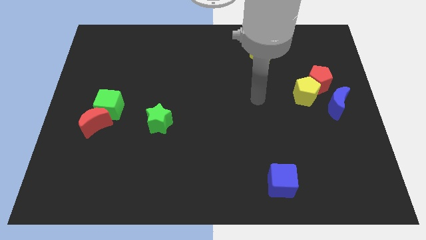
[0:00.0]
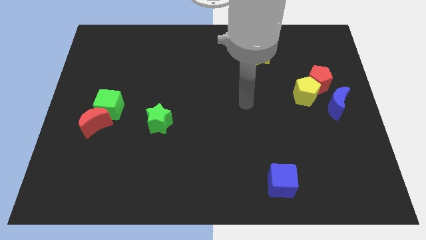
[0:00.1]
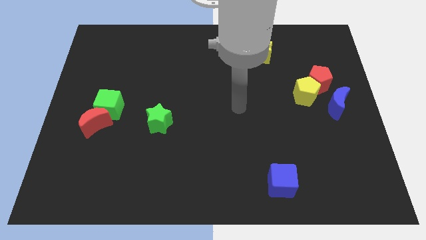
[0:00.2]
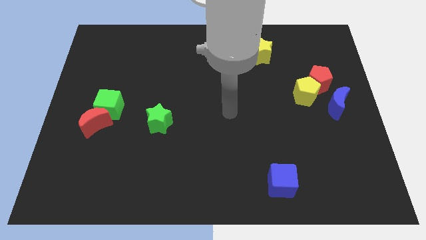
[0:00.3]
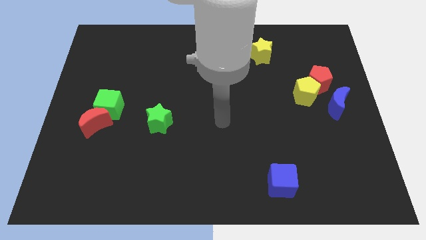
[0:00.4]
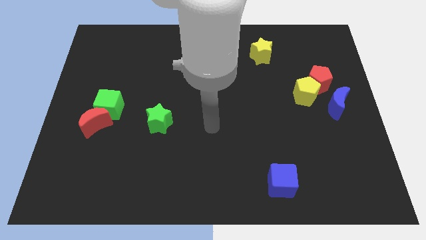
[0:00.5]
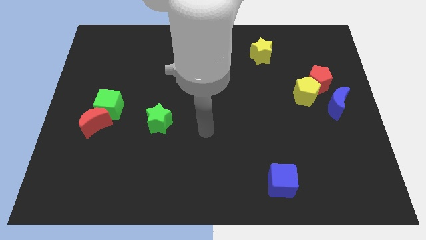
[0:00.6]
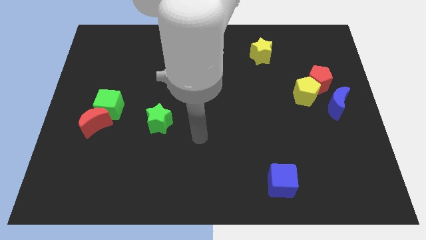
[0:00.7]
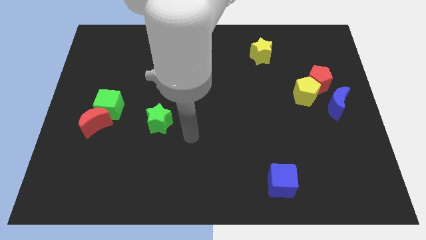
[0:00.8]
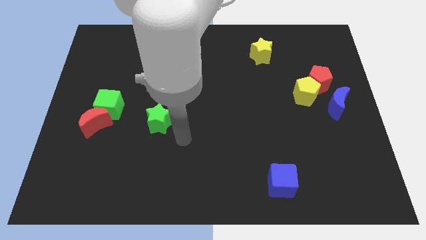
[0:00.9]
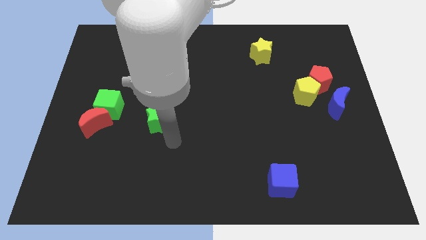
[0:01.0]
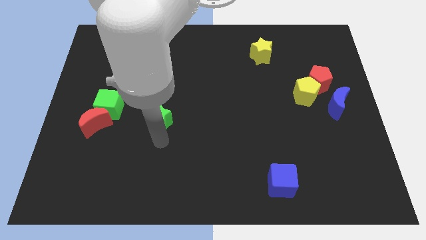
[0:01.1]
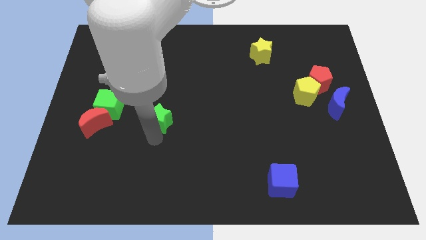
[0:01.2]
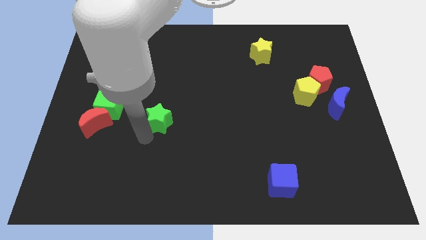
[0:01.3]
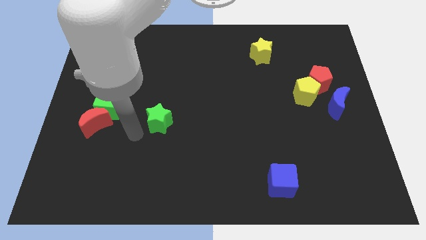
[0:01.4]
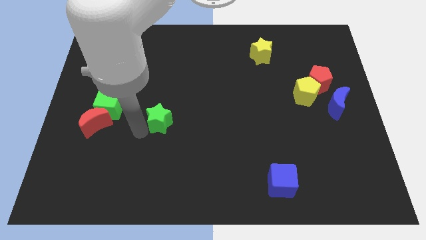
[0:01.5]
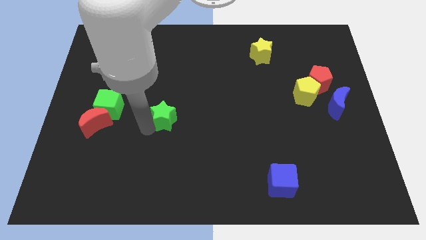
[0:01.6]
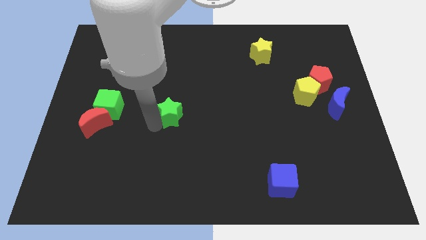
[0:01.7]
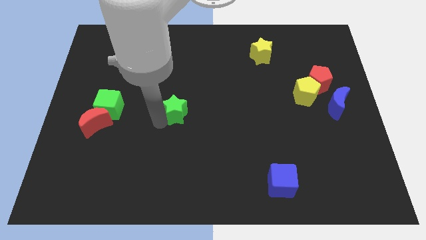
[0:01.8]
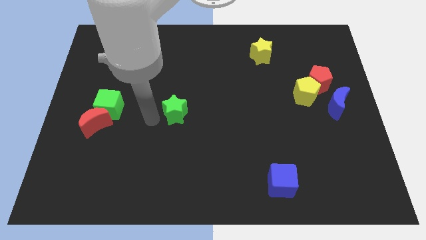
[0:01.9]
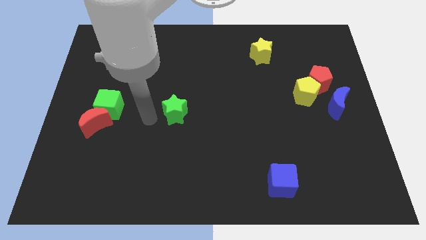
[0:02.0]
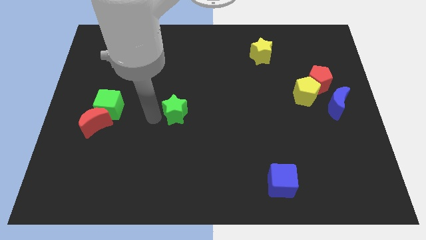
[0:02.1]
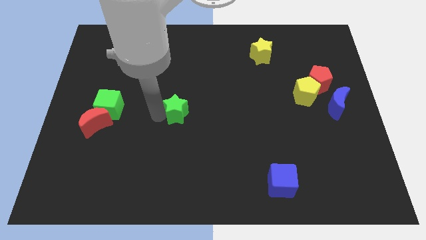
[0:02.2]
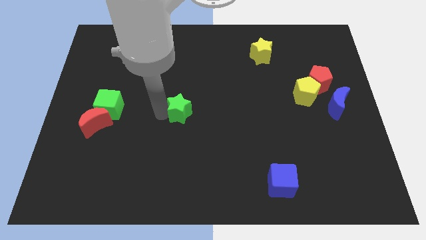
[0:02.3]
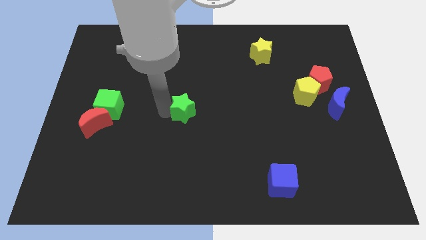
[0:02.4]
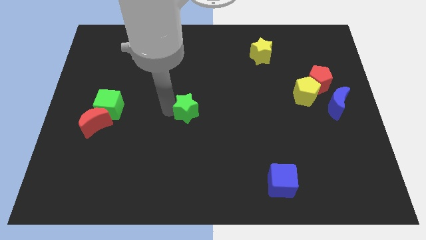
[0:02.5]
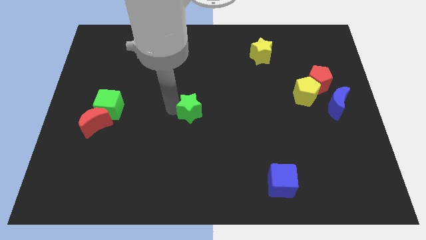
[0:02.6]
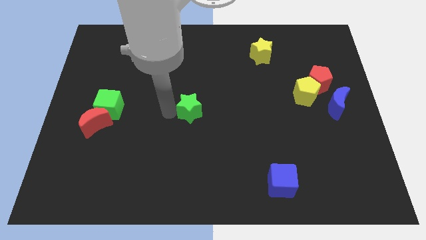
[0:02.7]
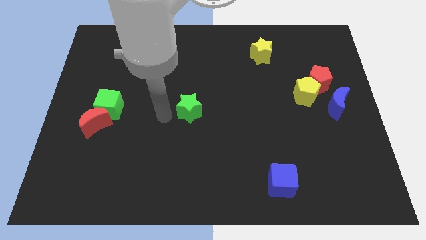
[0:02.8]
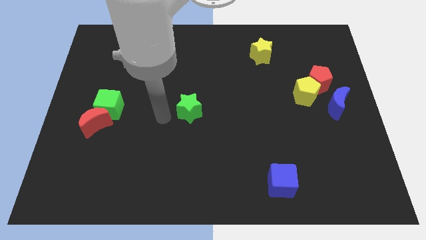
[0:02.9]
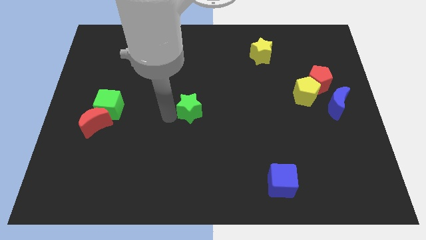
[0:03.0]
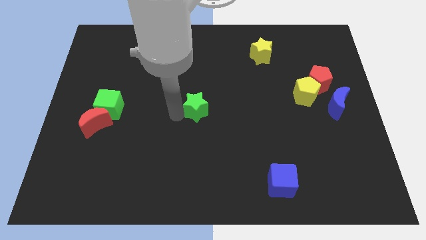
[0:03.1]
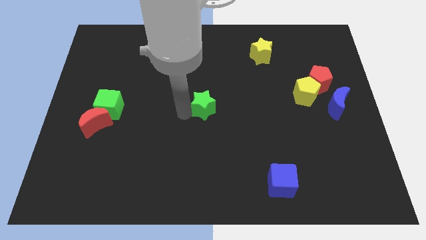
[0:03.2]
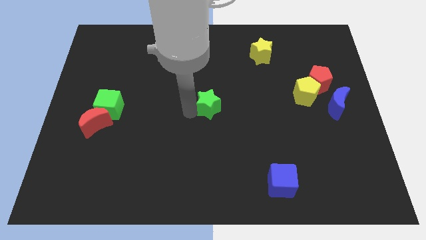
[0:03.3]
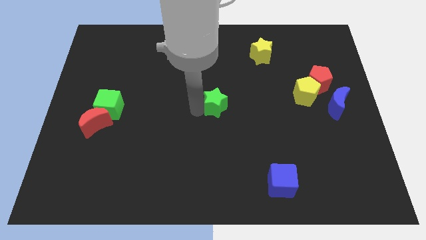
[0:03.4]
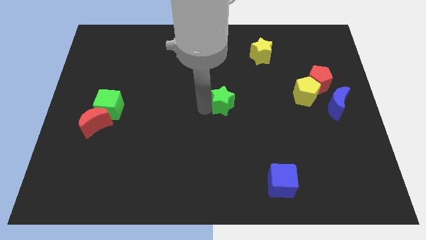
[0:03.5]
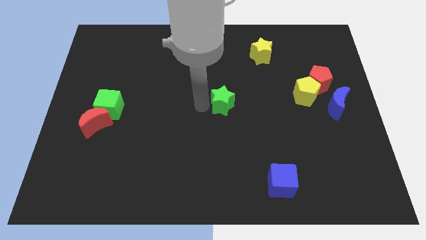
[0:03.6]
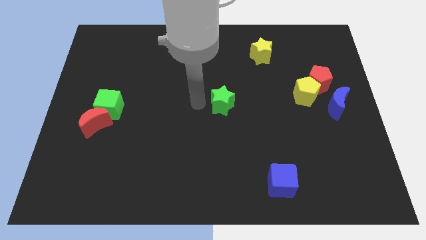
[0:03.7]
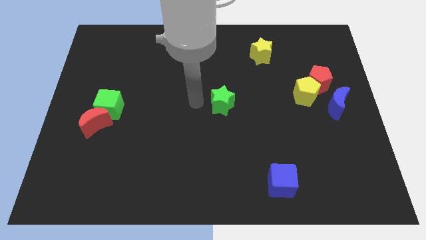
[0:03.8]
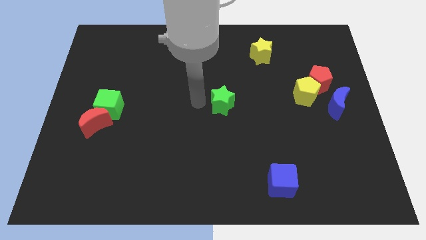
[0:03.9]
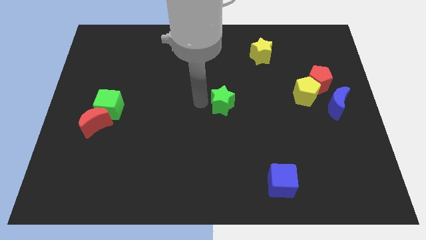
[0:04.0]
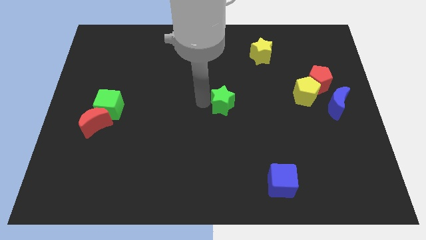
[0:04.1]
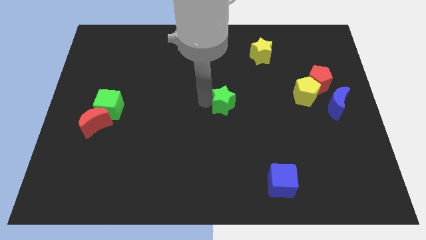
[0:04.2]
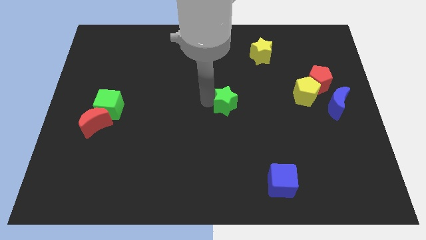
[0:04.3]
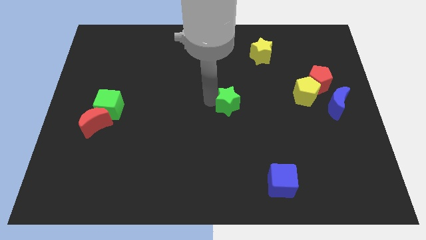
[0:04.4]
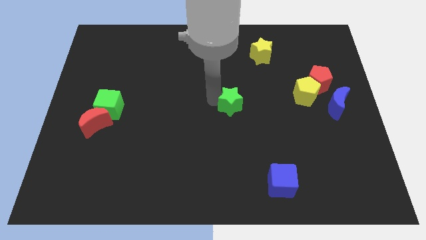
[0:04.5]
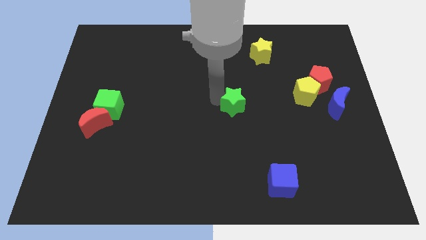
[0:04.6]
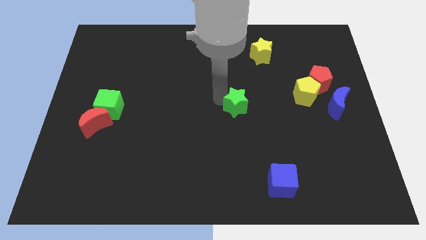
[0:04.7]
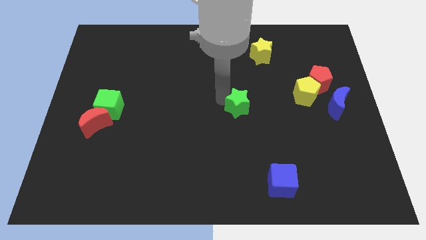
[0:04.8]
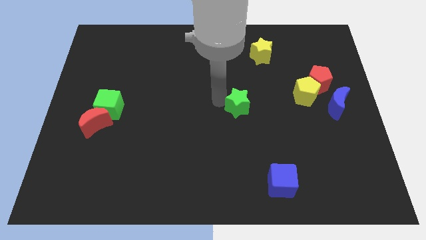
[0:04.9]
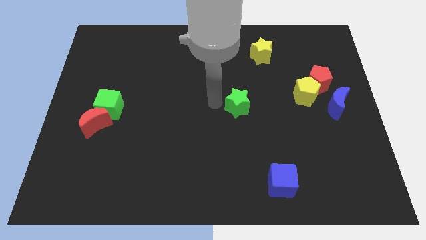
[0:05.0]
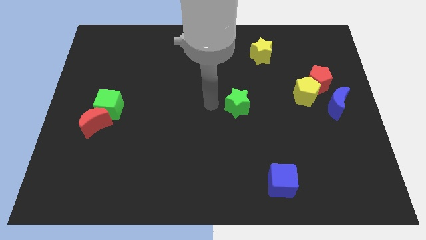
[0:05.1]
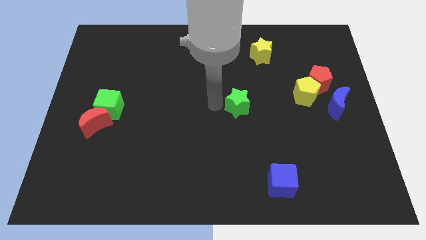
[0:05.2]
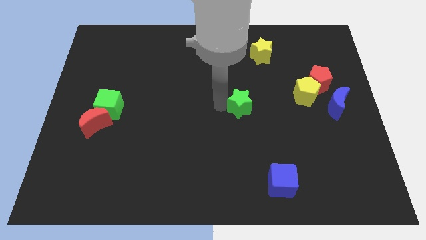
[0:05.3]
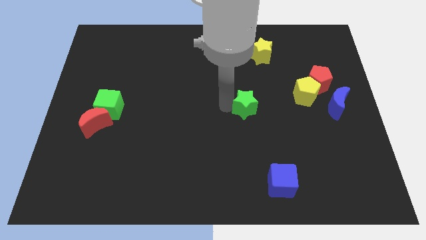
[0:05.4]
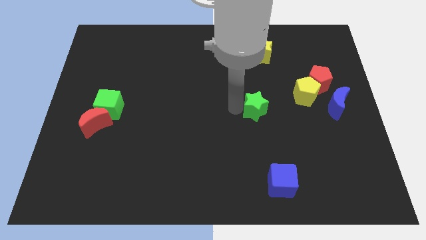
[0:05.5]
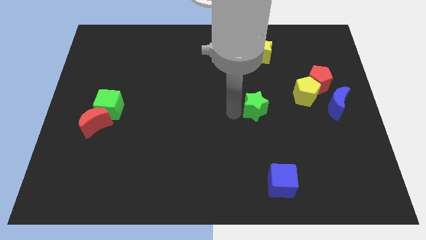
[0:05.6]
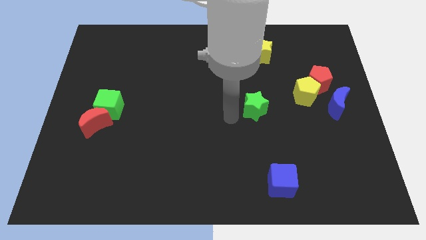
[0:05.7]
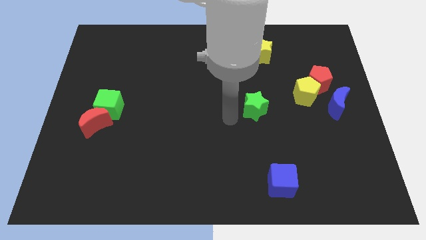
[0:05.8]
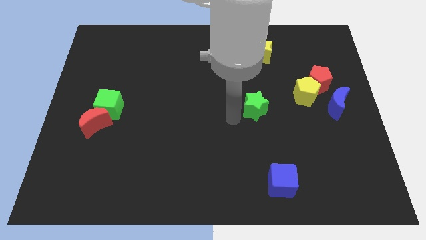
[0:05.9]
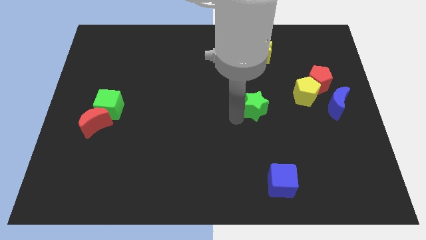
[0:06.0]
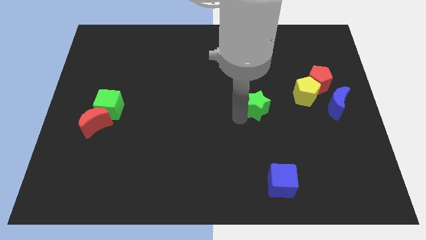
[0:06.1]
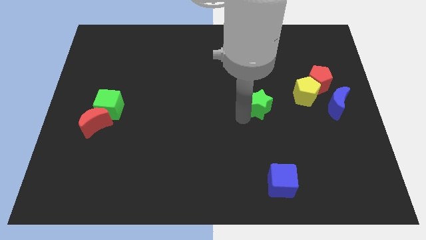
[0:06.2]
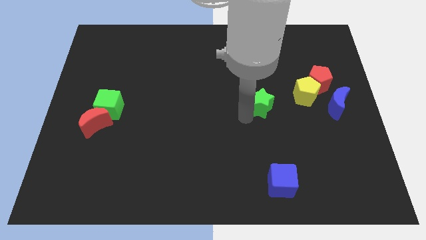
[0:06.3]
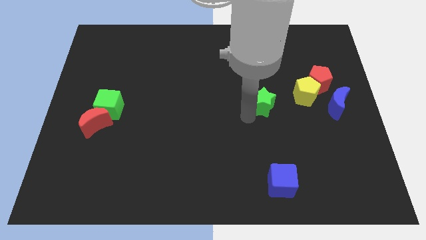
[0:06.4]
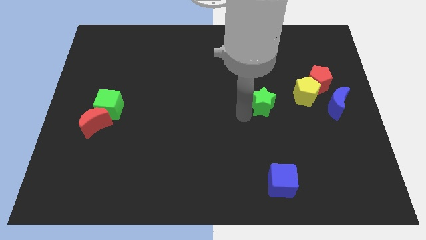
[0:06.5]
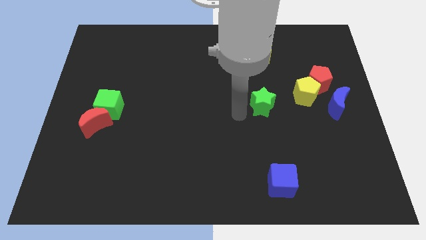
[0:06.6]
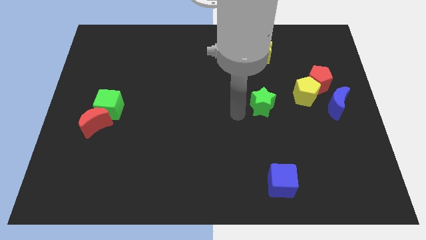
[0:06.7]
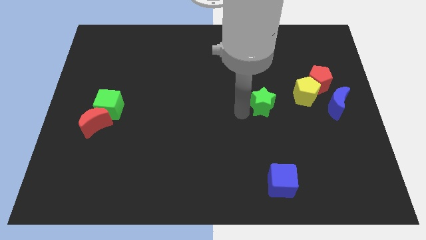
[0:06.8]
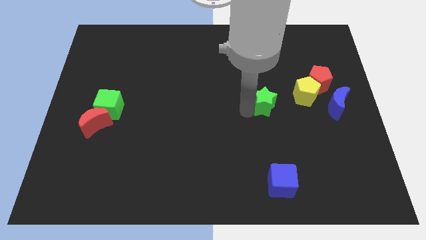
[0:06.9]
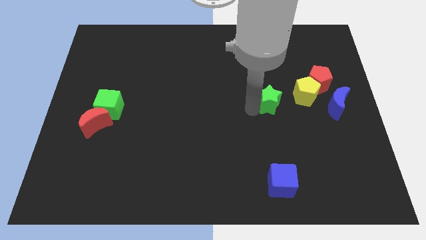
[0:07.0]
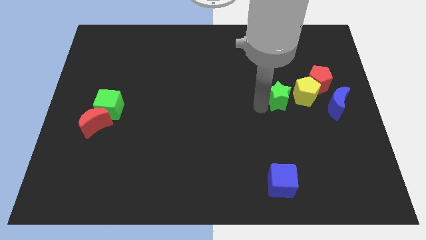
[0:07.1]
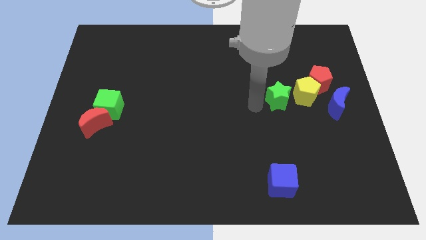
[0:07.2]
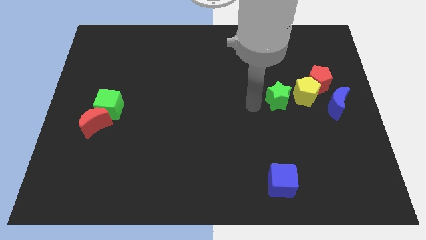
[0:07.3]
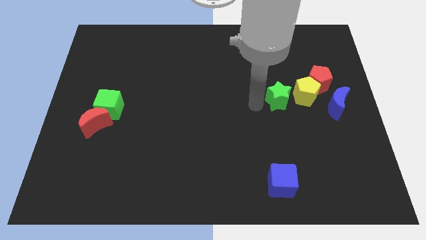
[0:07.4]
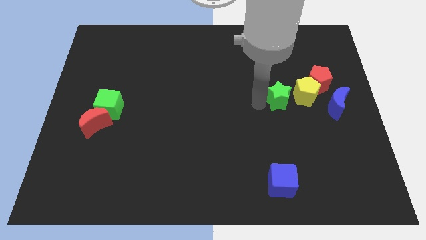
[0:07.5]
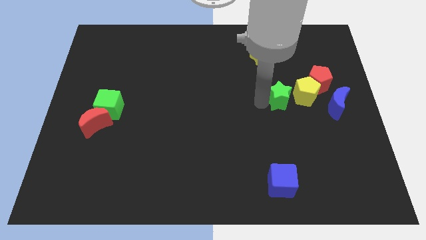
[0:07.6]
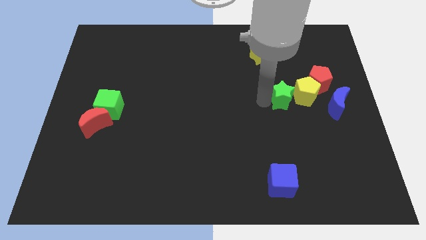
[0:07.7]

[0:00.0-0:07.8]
slide the green star towards the yellow pentagon

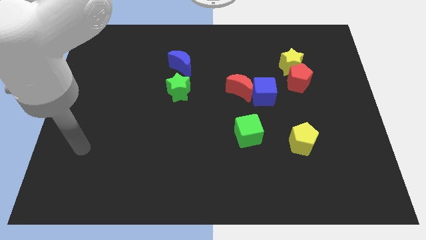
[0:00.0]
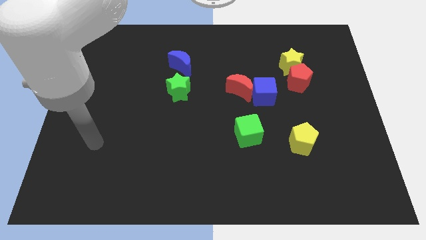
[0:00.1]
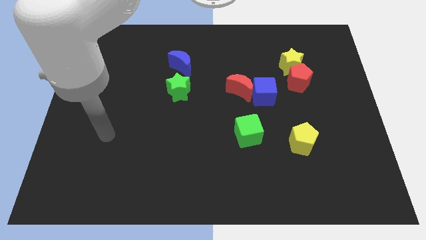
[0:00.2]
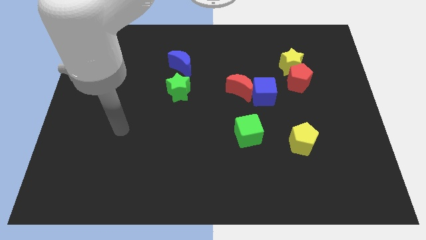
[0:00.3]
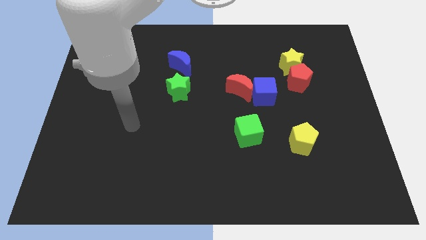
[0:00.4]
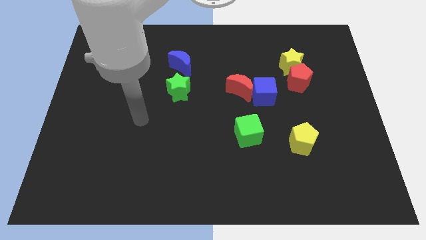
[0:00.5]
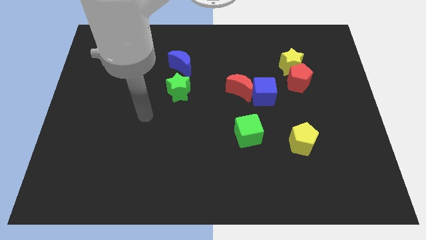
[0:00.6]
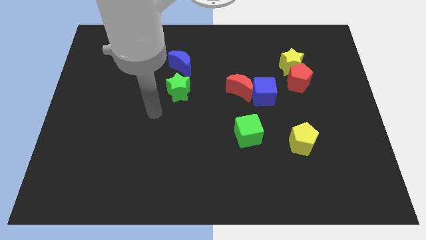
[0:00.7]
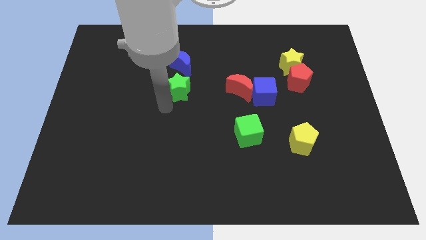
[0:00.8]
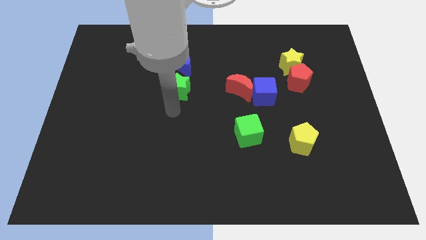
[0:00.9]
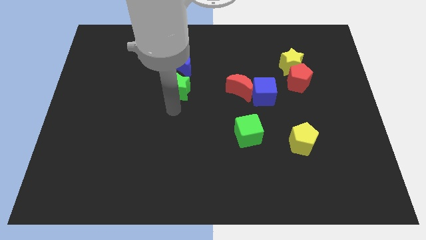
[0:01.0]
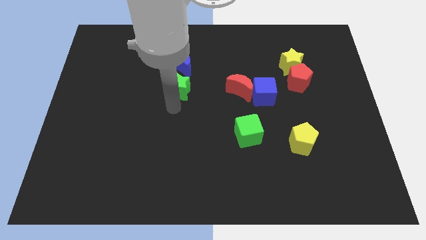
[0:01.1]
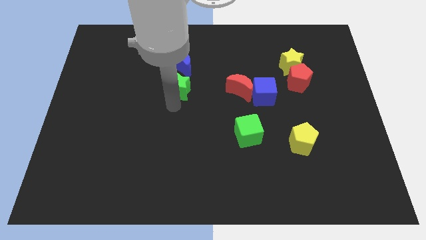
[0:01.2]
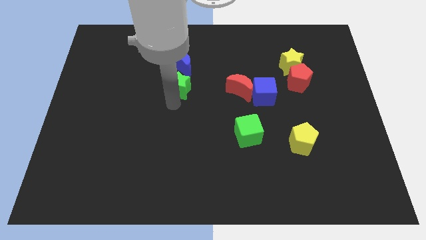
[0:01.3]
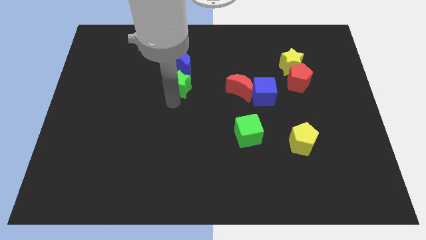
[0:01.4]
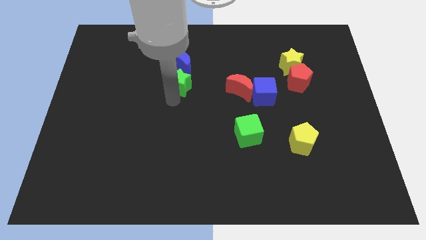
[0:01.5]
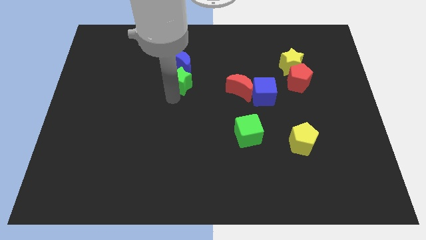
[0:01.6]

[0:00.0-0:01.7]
put the green star close to the blue moon
